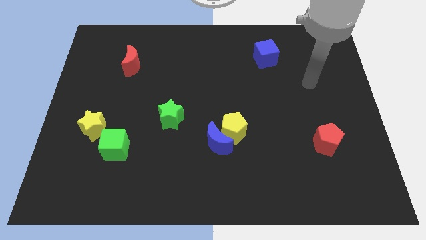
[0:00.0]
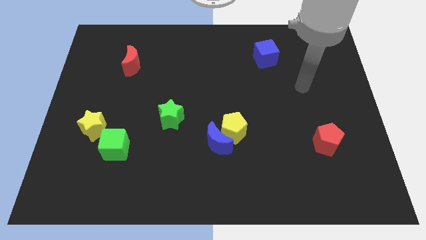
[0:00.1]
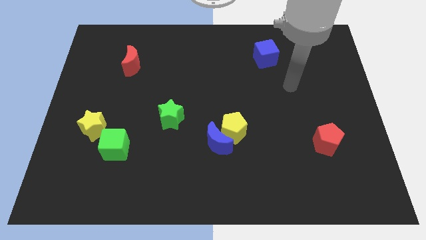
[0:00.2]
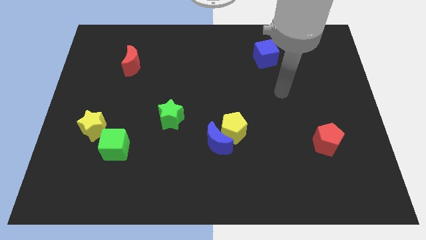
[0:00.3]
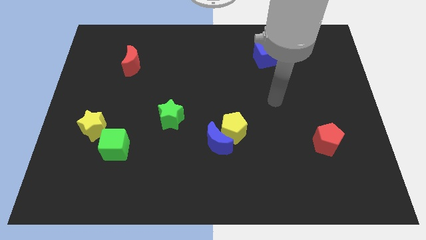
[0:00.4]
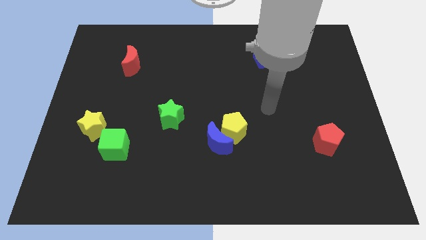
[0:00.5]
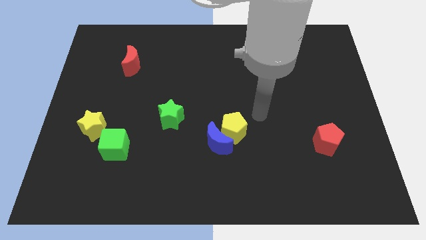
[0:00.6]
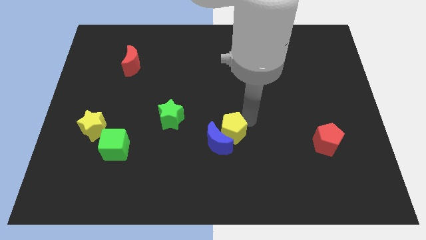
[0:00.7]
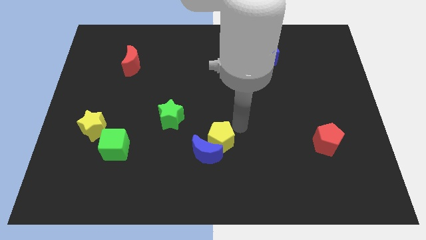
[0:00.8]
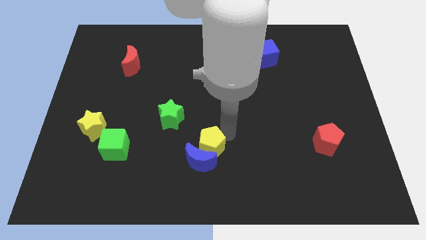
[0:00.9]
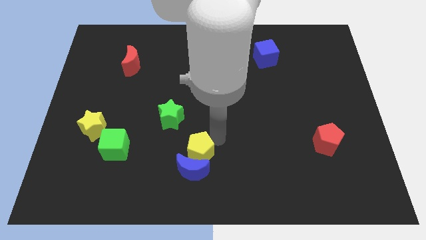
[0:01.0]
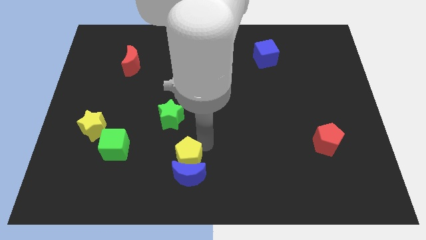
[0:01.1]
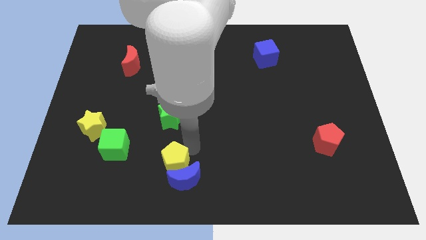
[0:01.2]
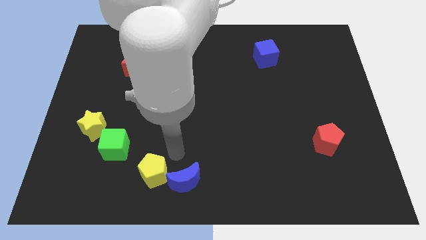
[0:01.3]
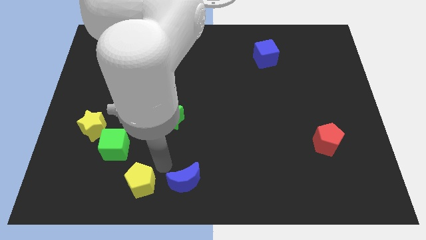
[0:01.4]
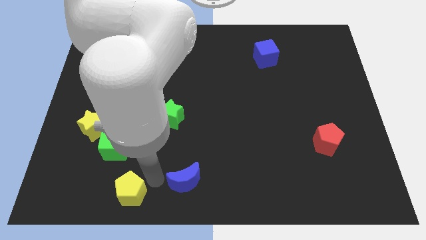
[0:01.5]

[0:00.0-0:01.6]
move the blue moon away from the yellow pentagon

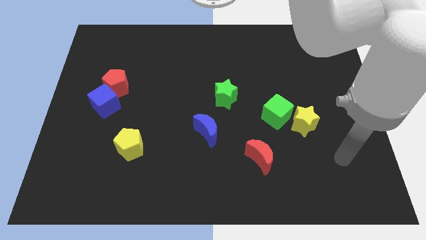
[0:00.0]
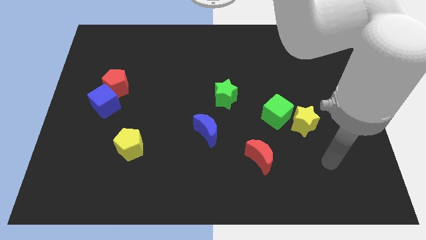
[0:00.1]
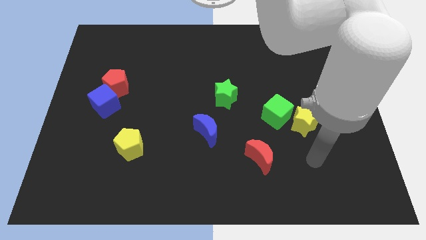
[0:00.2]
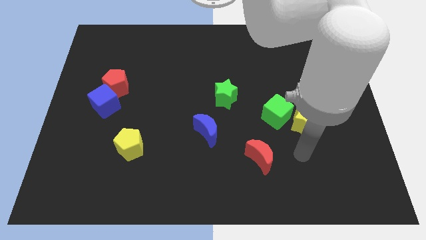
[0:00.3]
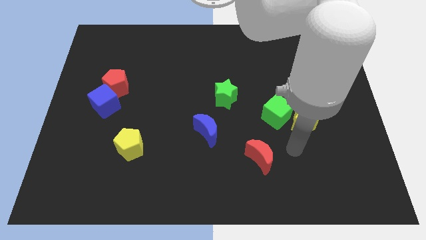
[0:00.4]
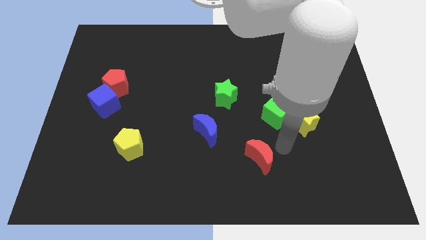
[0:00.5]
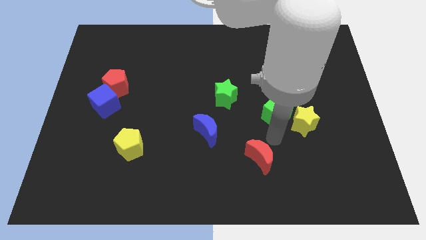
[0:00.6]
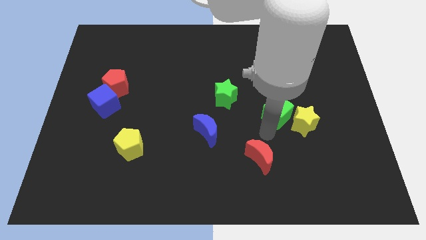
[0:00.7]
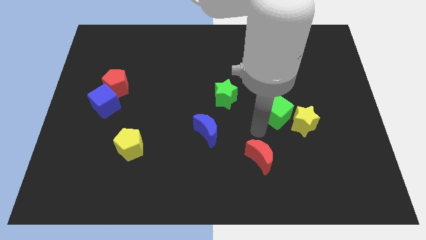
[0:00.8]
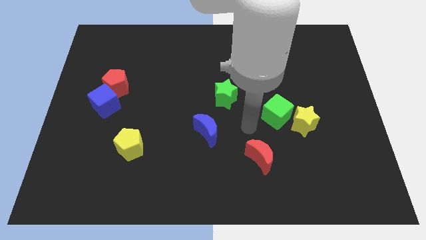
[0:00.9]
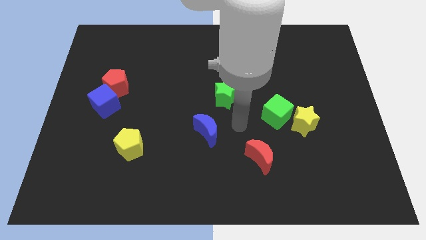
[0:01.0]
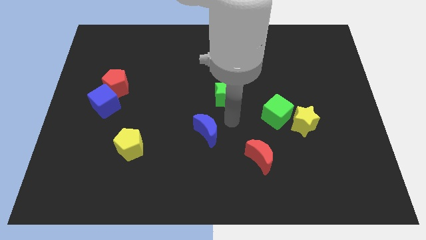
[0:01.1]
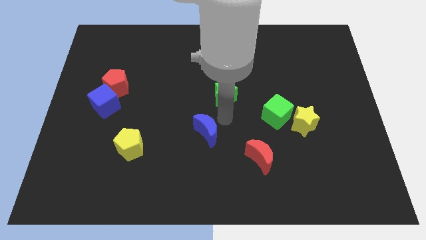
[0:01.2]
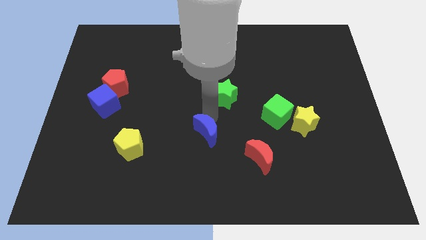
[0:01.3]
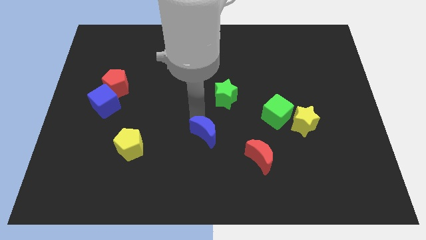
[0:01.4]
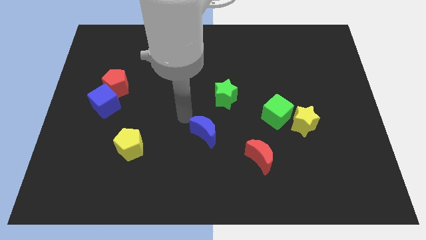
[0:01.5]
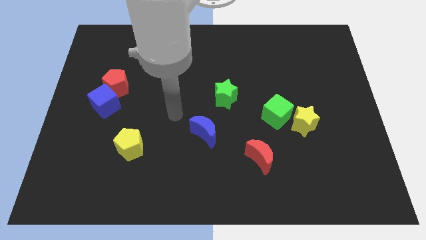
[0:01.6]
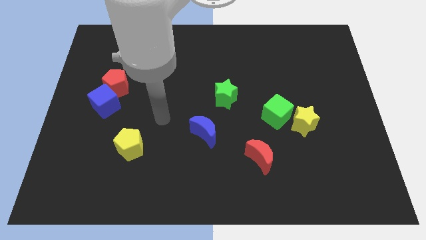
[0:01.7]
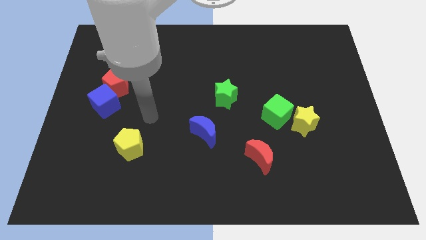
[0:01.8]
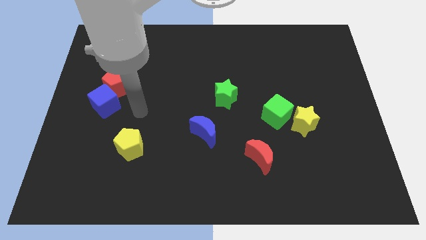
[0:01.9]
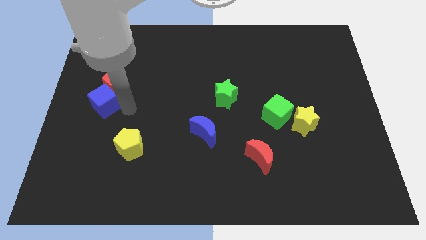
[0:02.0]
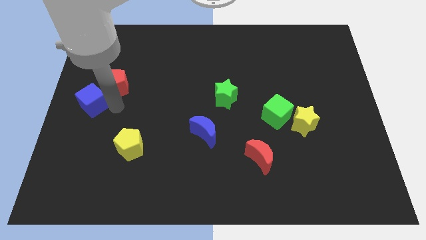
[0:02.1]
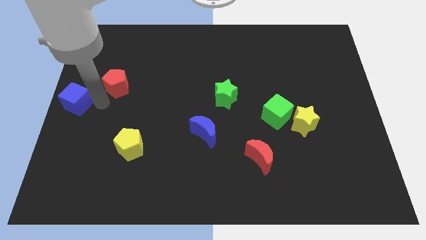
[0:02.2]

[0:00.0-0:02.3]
pull the red pentagon apart from the blue cube

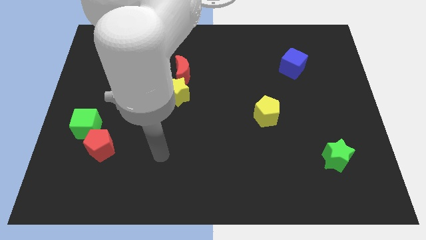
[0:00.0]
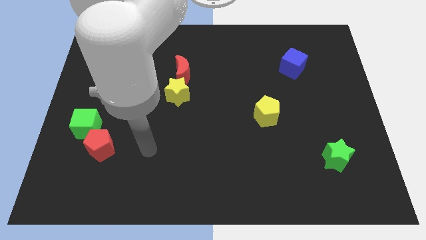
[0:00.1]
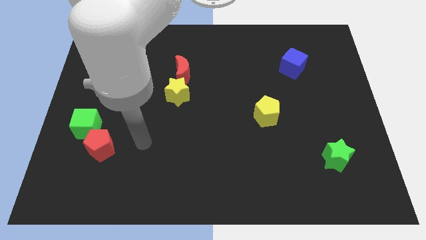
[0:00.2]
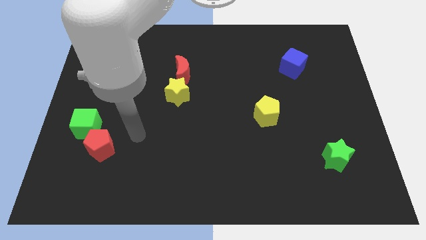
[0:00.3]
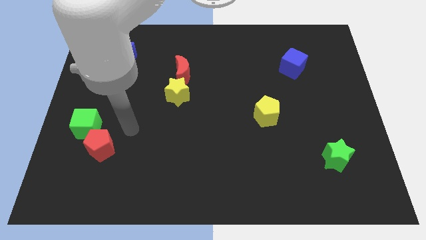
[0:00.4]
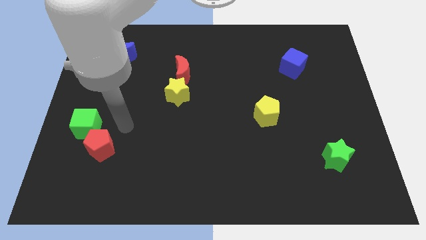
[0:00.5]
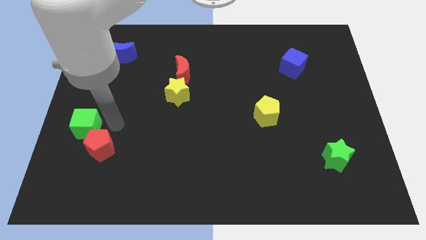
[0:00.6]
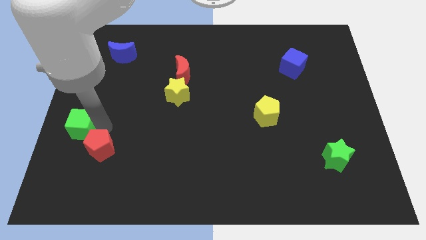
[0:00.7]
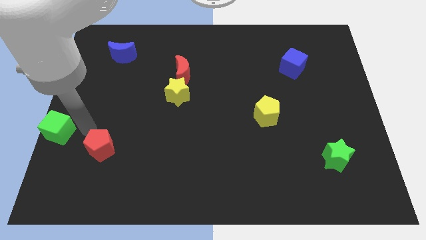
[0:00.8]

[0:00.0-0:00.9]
move the red pentagon away from the green cube

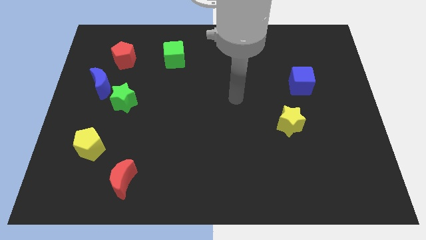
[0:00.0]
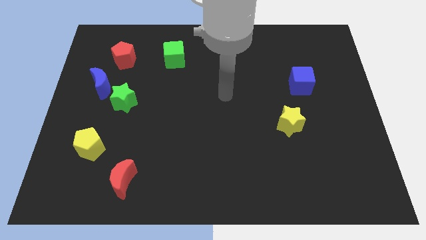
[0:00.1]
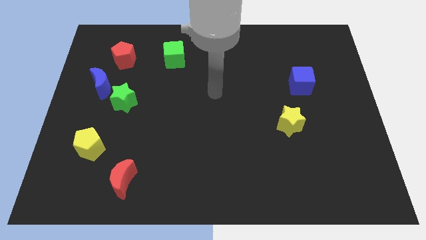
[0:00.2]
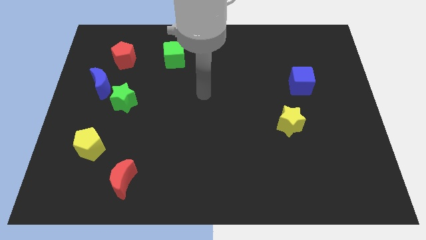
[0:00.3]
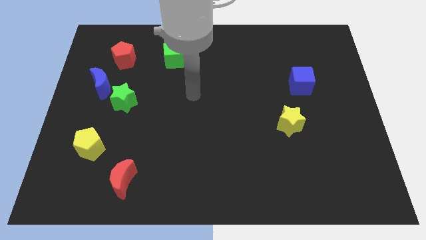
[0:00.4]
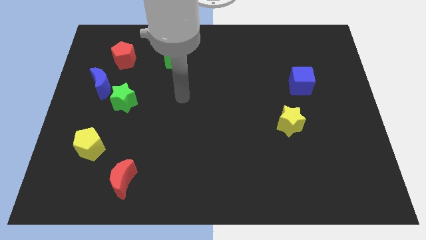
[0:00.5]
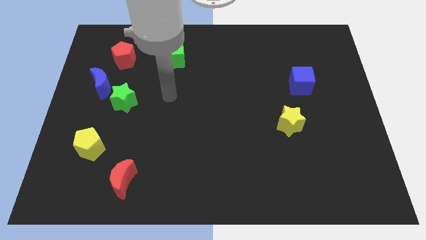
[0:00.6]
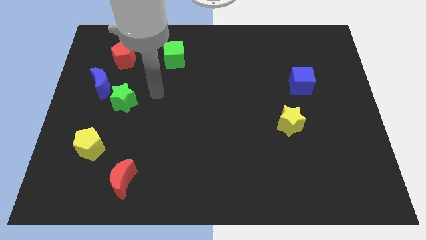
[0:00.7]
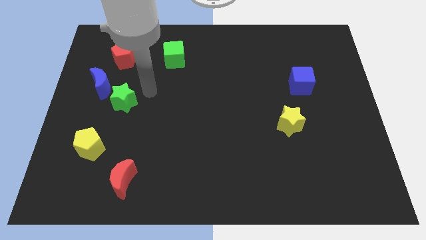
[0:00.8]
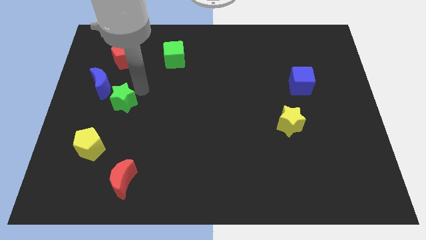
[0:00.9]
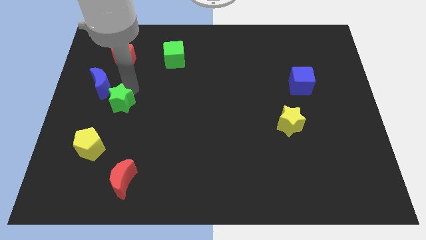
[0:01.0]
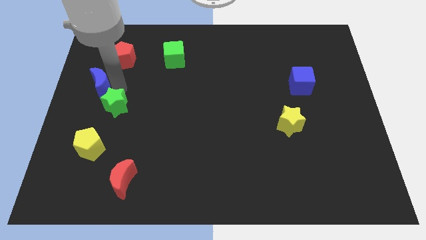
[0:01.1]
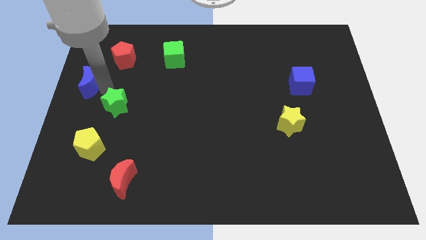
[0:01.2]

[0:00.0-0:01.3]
move the green star away from the blue moon

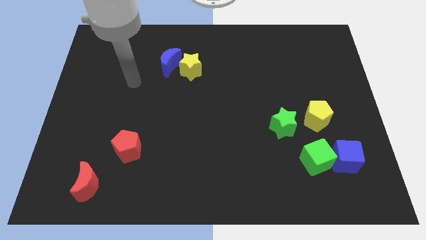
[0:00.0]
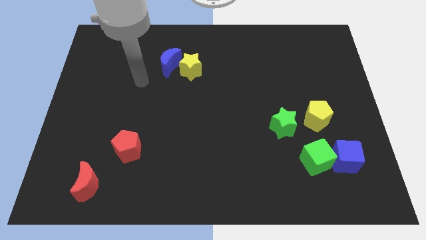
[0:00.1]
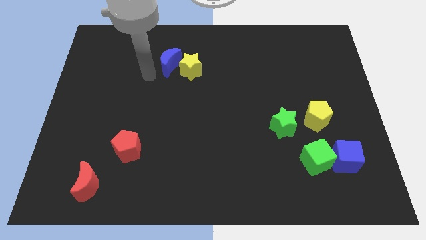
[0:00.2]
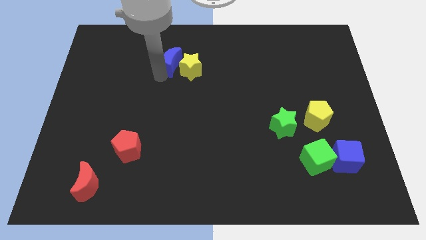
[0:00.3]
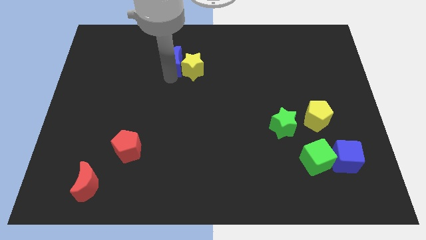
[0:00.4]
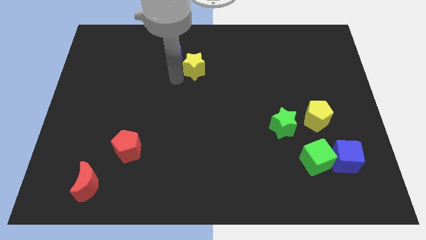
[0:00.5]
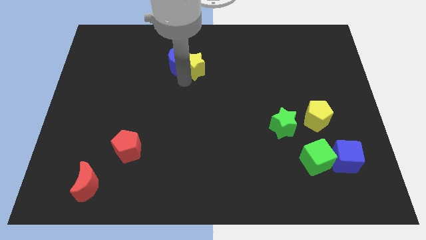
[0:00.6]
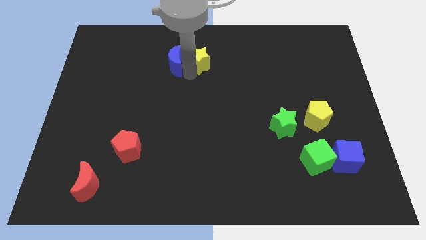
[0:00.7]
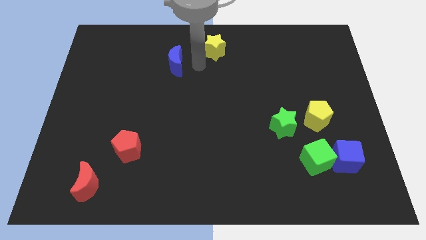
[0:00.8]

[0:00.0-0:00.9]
separate the blue moon from the yellow star

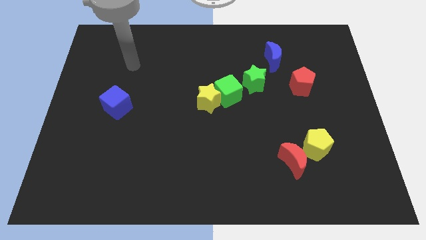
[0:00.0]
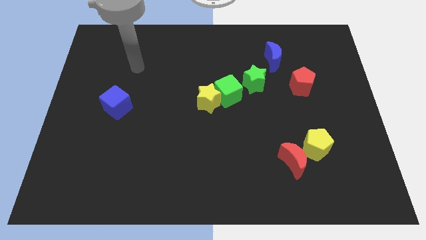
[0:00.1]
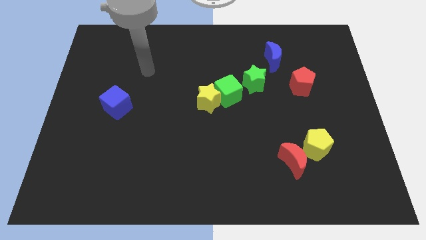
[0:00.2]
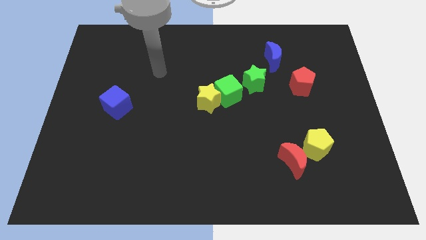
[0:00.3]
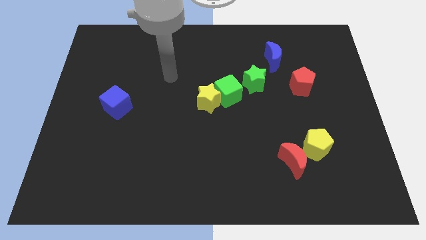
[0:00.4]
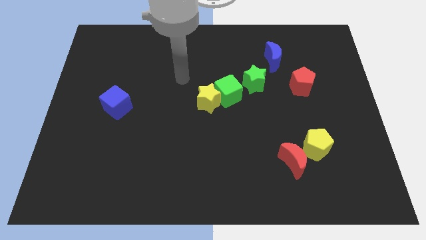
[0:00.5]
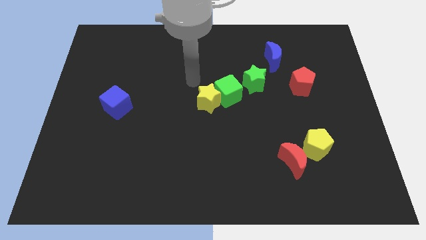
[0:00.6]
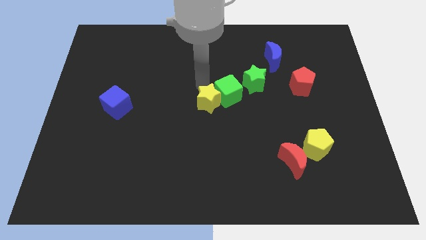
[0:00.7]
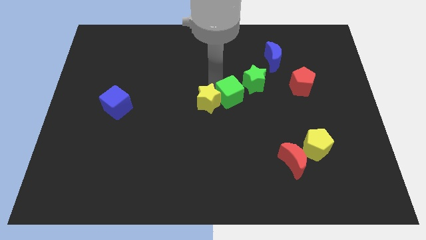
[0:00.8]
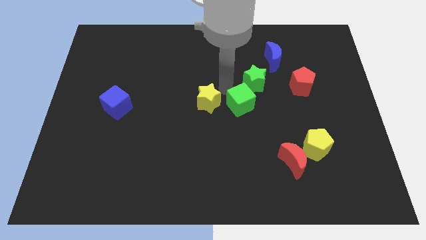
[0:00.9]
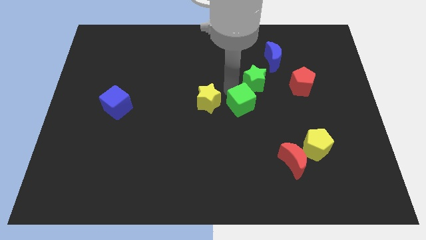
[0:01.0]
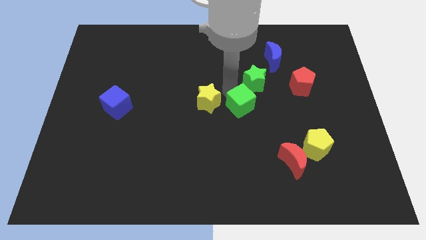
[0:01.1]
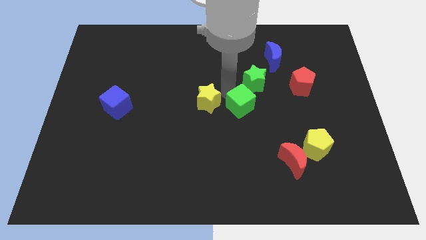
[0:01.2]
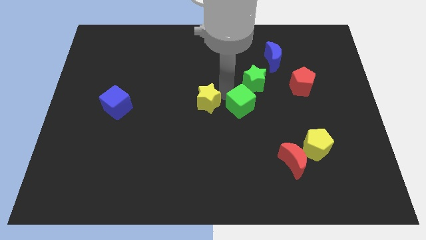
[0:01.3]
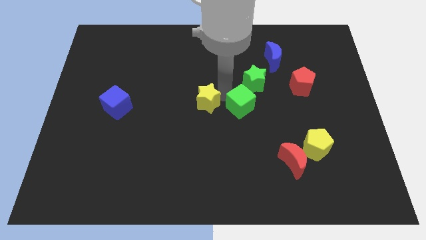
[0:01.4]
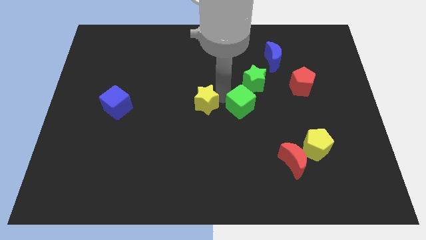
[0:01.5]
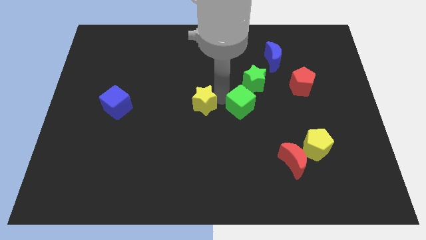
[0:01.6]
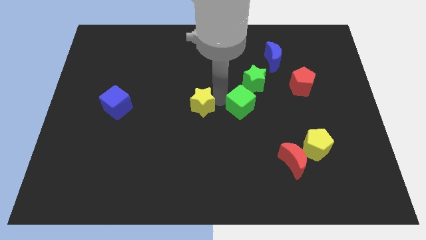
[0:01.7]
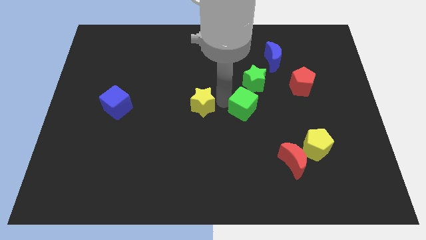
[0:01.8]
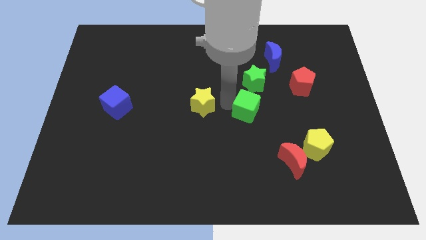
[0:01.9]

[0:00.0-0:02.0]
move the yellow star away from the green cube

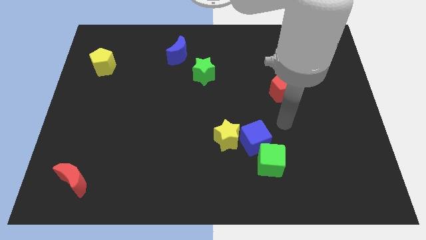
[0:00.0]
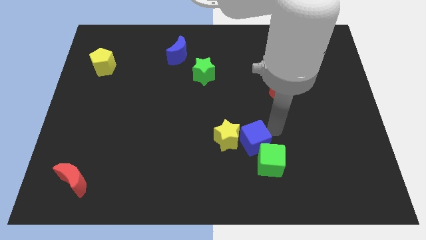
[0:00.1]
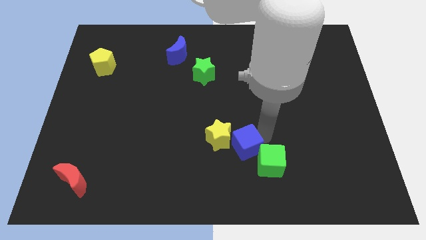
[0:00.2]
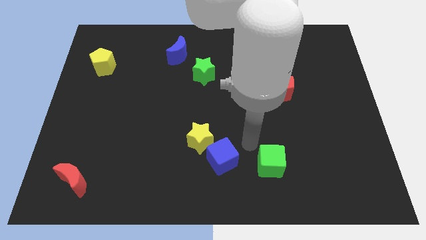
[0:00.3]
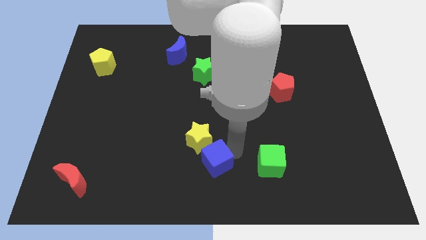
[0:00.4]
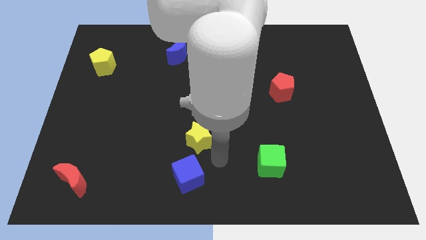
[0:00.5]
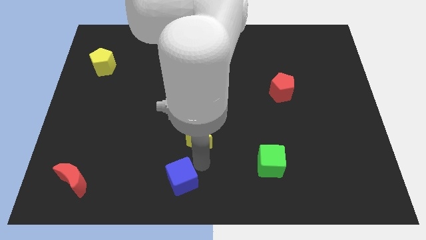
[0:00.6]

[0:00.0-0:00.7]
pull the yellow star apart from the blue cube
